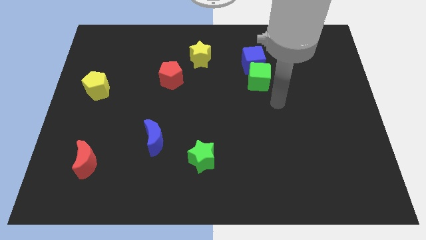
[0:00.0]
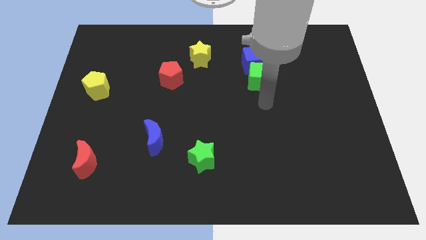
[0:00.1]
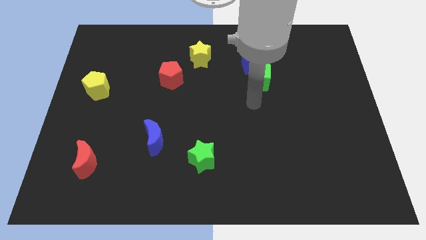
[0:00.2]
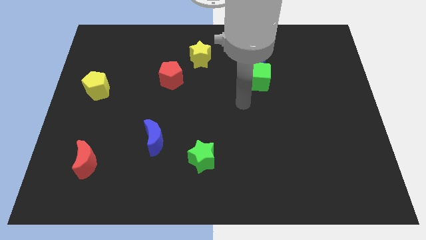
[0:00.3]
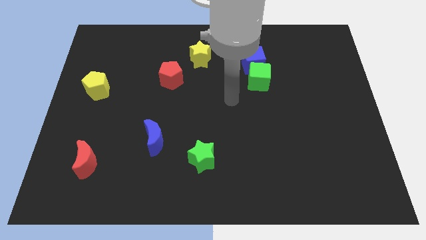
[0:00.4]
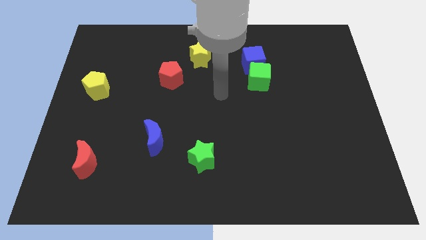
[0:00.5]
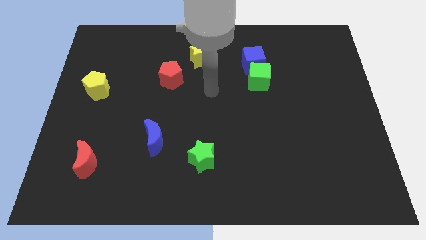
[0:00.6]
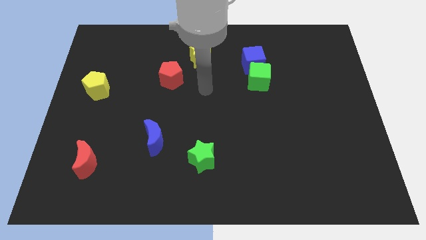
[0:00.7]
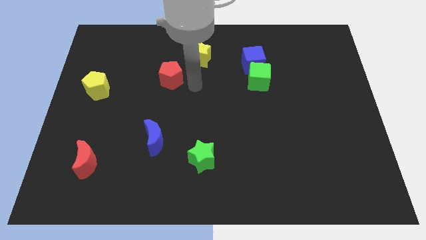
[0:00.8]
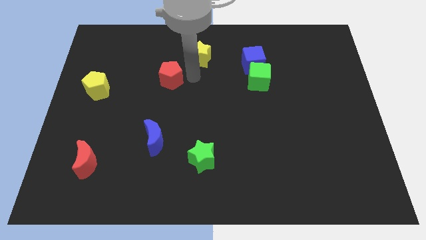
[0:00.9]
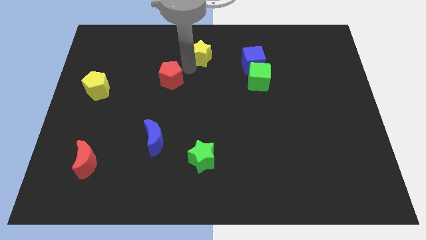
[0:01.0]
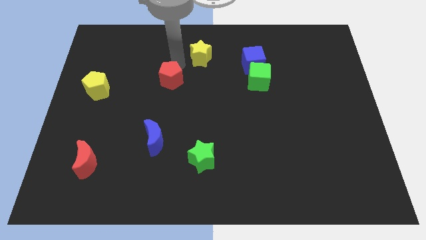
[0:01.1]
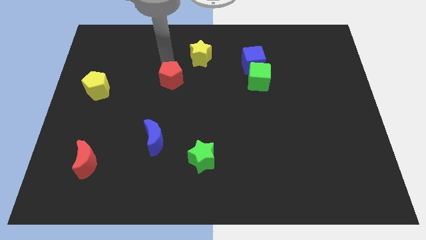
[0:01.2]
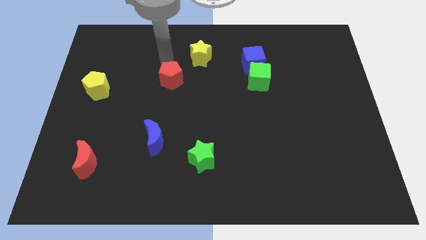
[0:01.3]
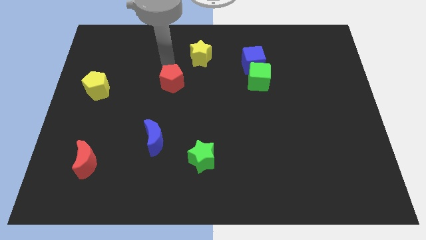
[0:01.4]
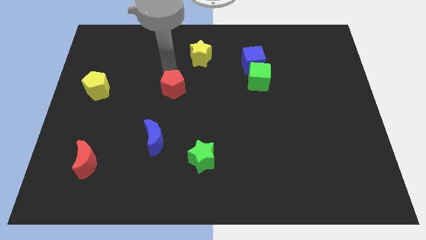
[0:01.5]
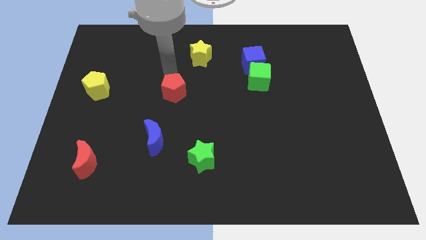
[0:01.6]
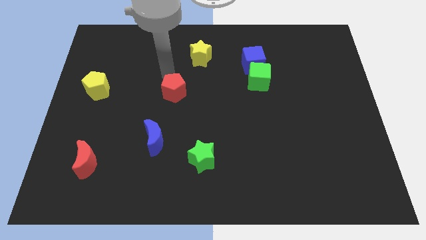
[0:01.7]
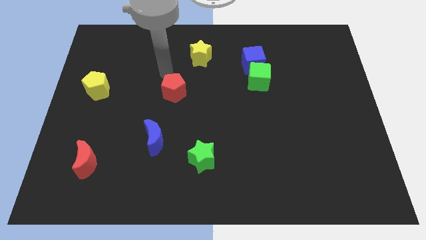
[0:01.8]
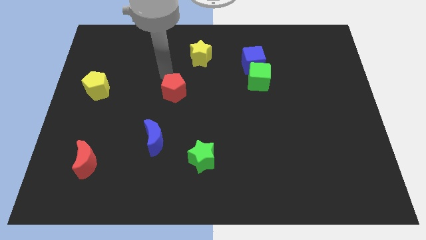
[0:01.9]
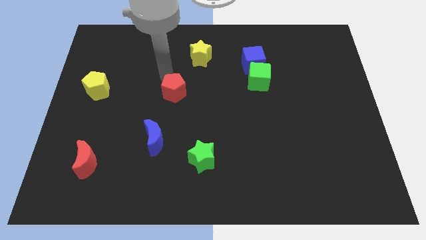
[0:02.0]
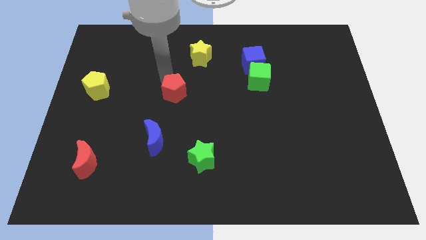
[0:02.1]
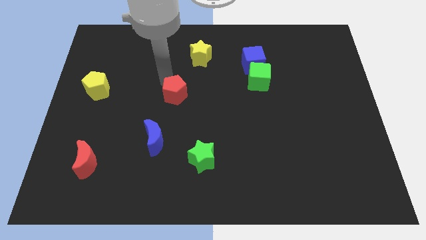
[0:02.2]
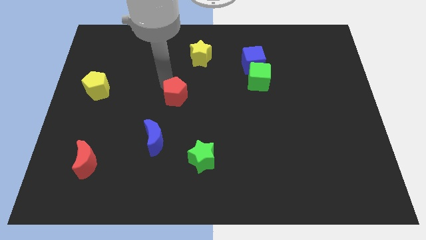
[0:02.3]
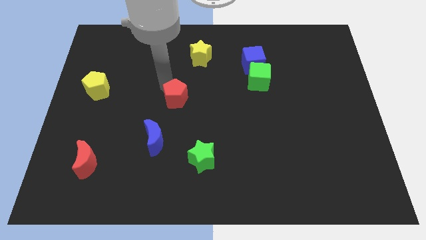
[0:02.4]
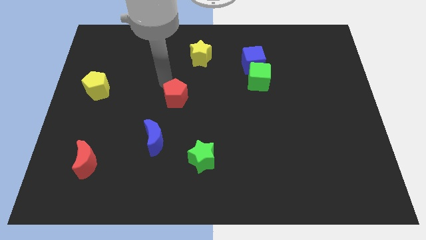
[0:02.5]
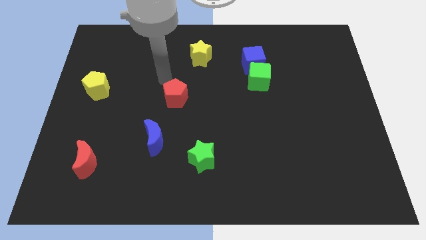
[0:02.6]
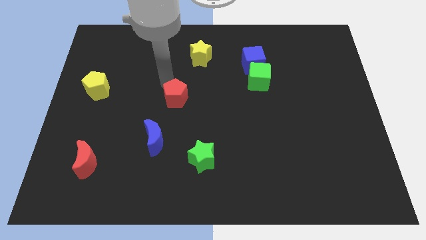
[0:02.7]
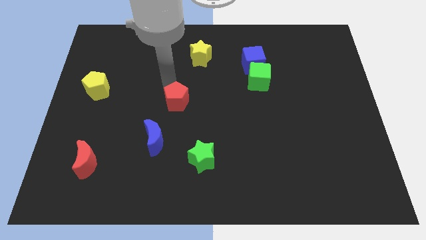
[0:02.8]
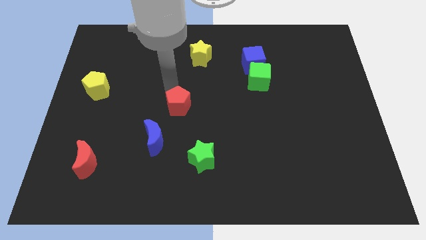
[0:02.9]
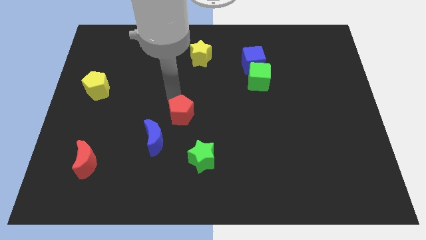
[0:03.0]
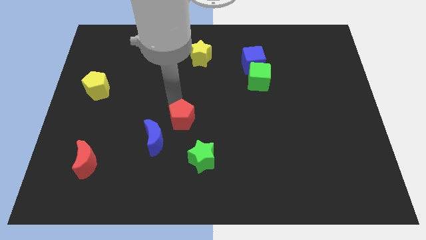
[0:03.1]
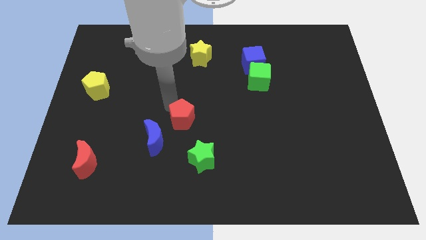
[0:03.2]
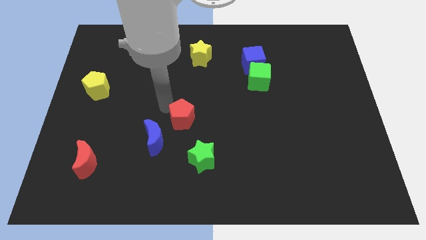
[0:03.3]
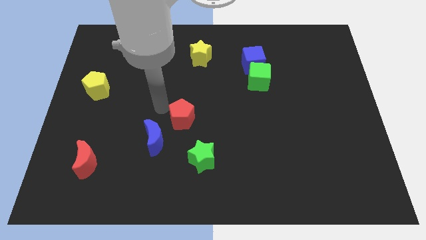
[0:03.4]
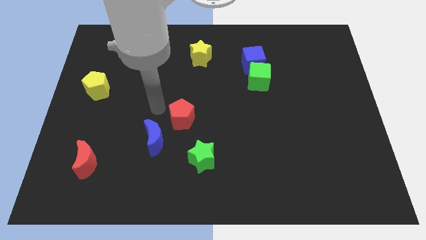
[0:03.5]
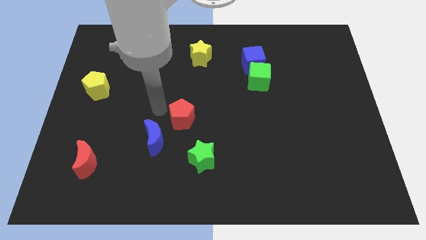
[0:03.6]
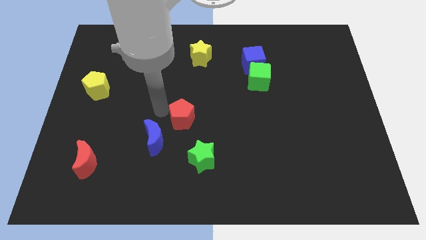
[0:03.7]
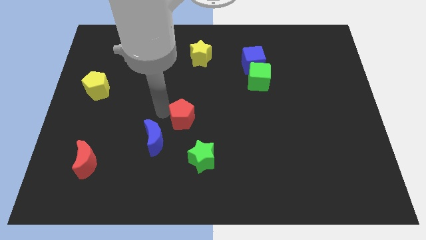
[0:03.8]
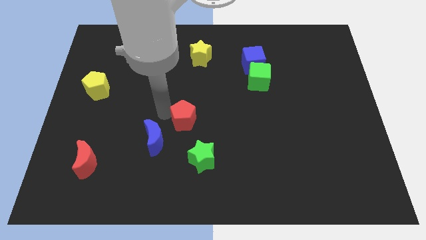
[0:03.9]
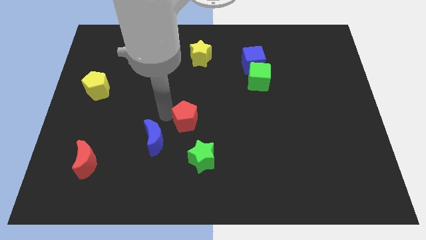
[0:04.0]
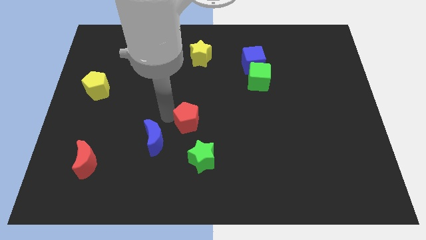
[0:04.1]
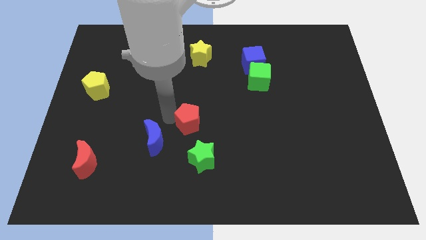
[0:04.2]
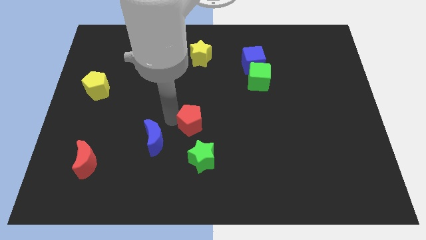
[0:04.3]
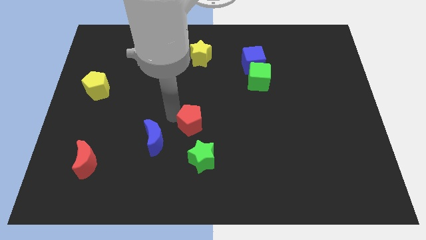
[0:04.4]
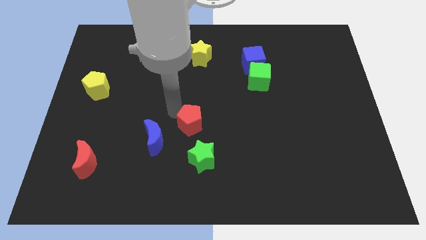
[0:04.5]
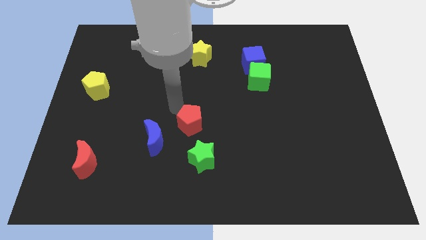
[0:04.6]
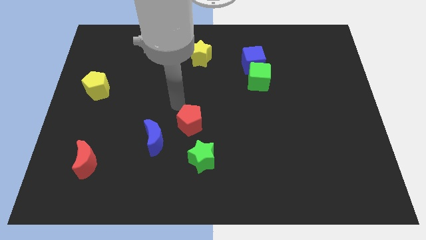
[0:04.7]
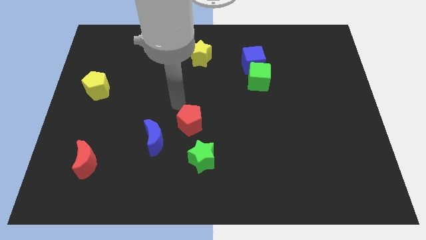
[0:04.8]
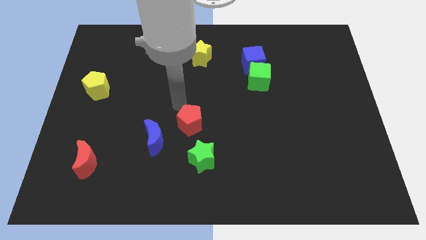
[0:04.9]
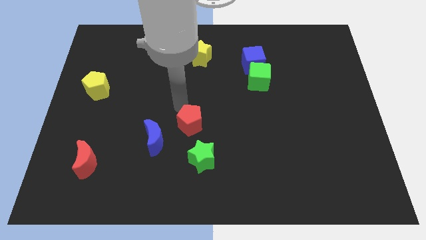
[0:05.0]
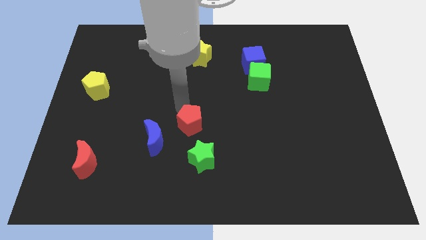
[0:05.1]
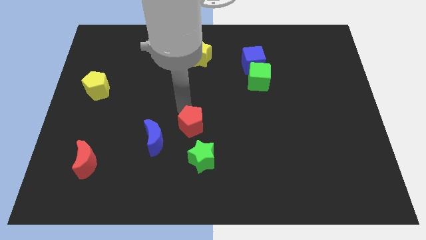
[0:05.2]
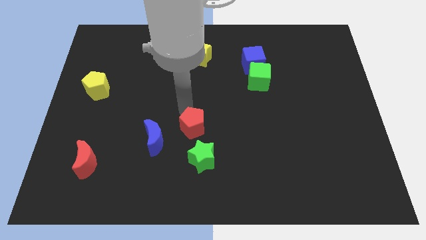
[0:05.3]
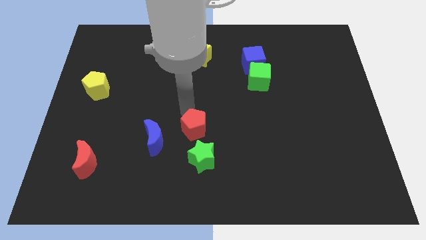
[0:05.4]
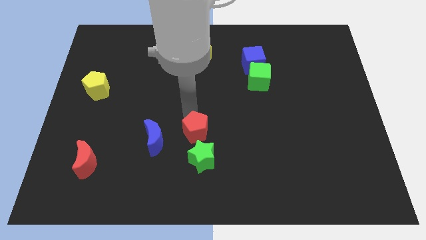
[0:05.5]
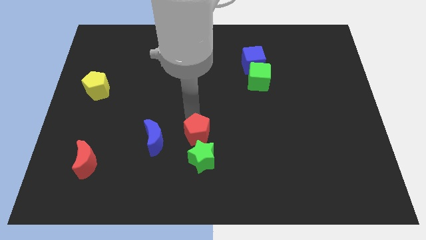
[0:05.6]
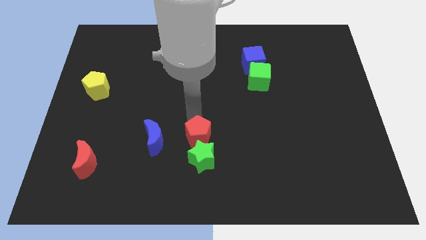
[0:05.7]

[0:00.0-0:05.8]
move the red pentagon next to the green star
